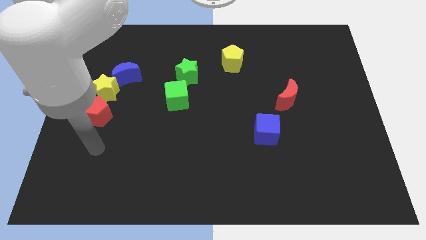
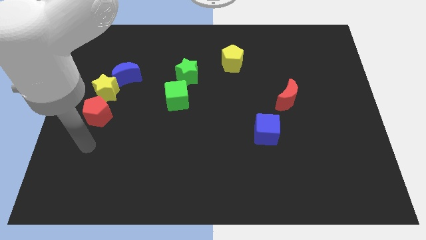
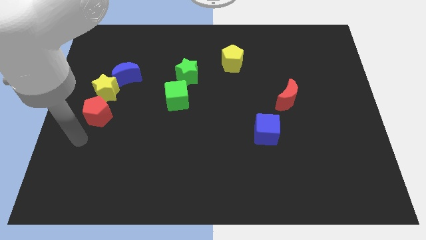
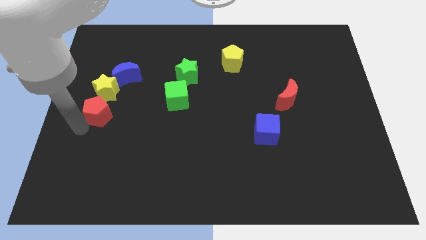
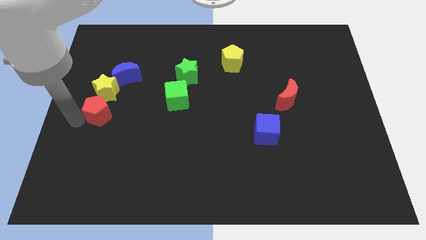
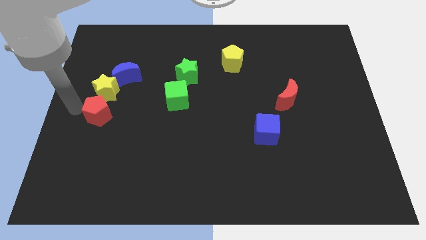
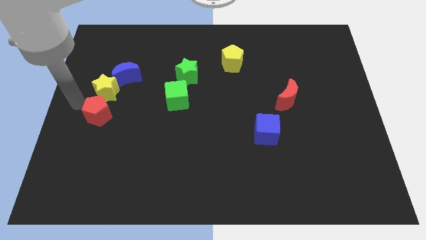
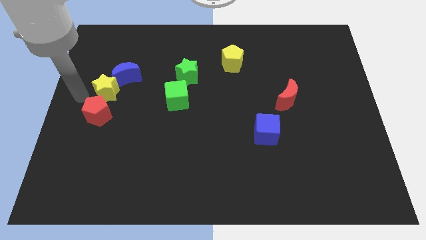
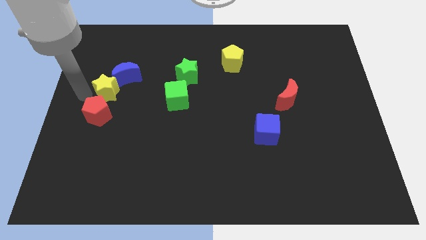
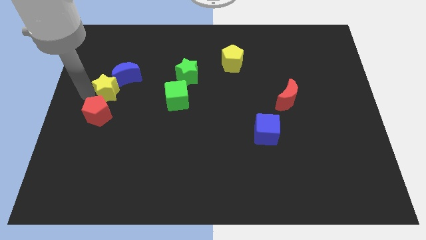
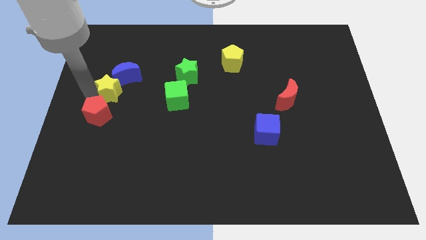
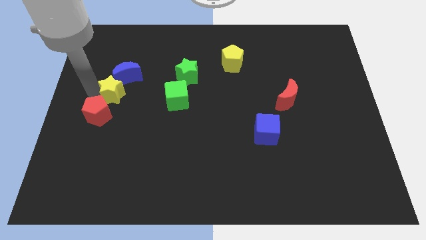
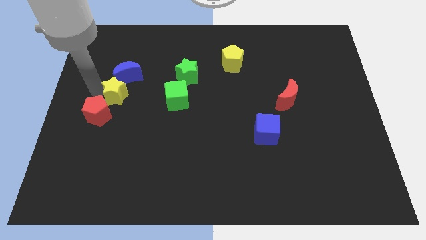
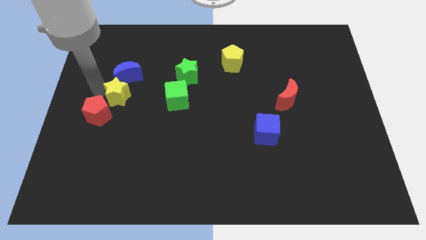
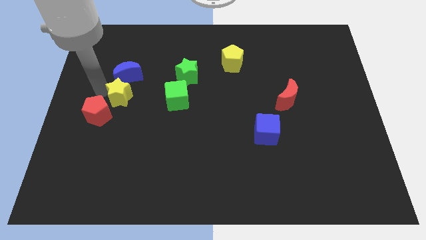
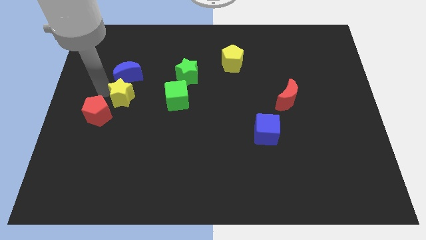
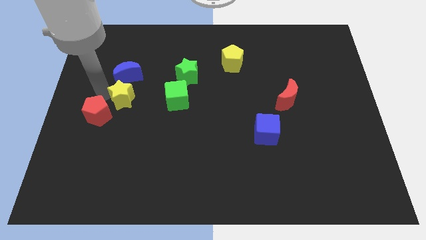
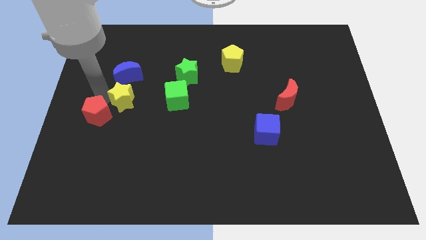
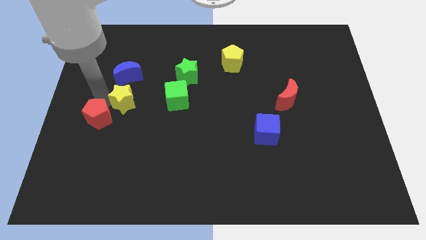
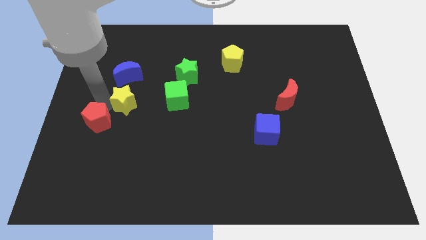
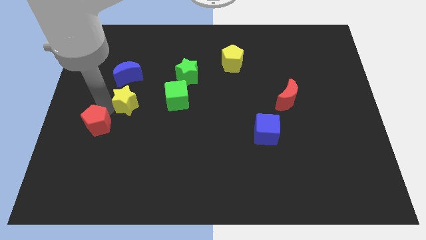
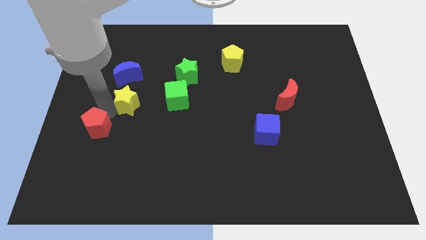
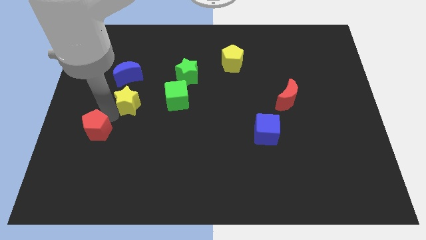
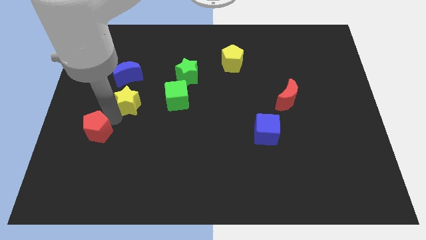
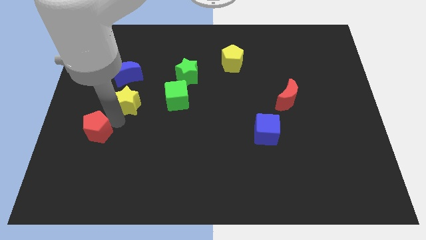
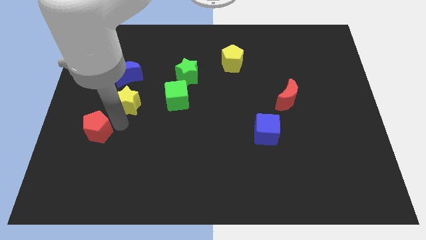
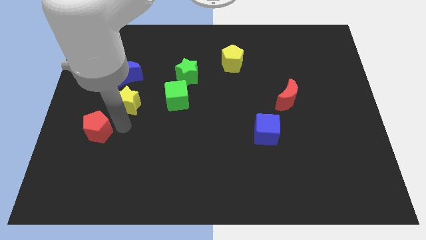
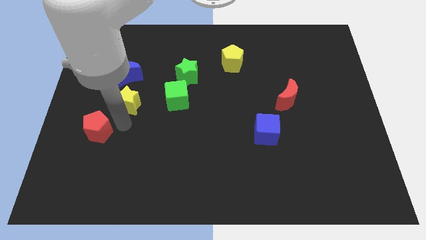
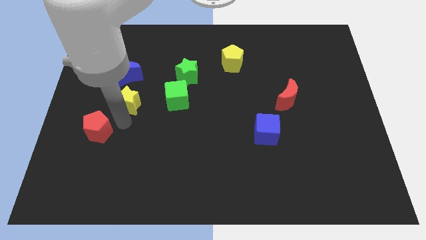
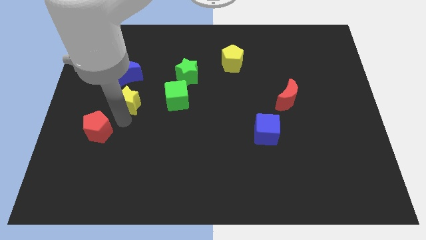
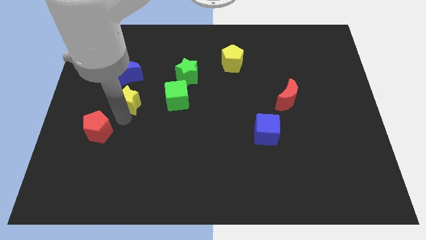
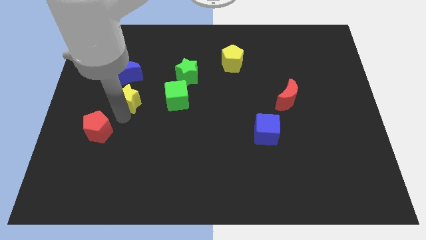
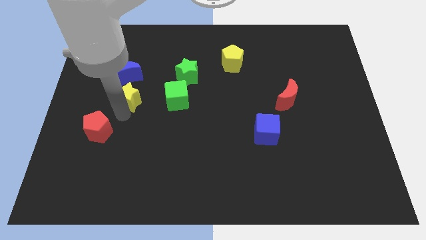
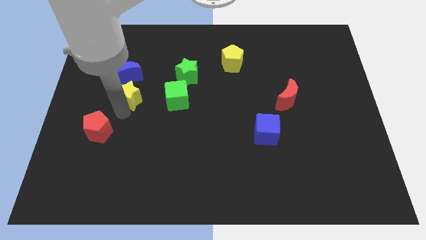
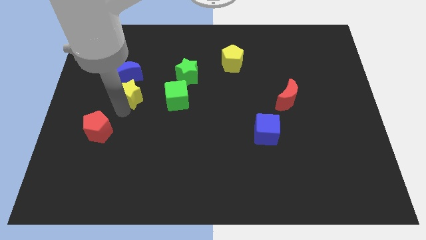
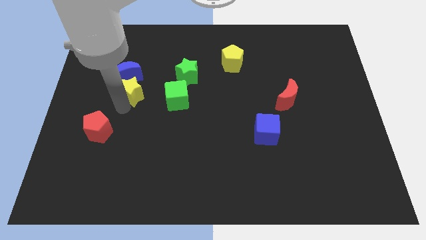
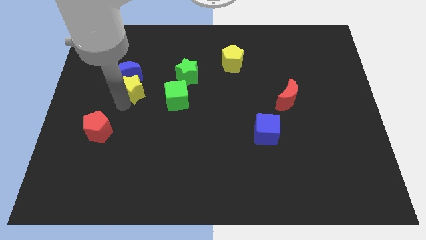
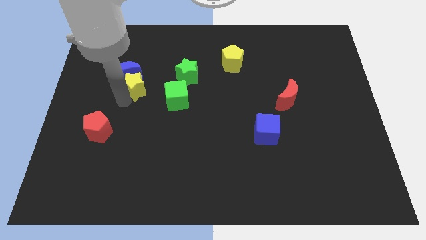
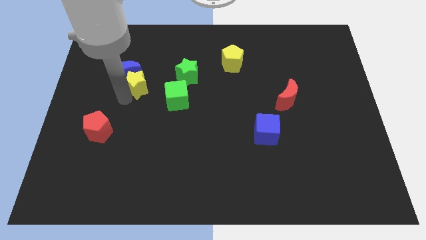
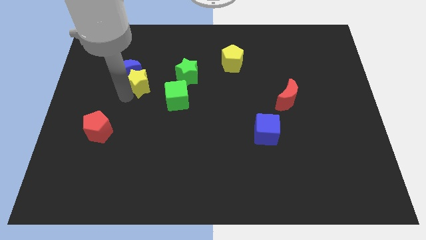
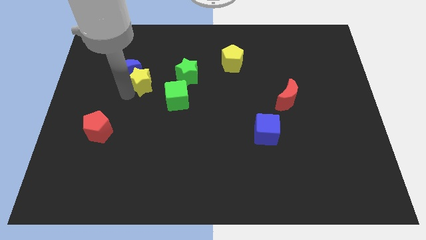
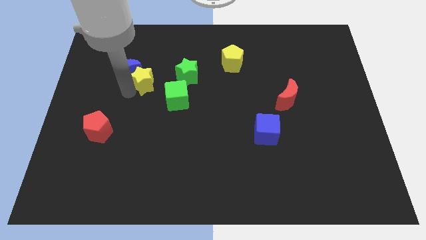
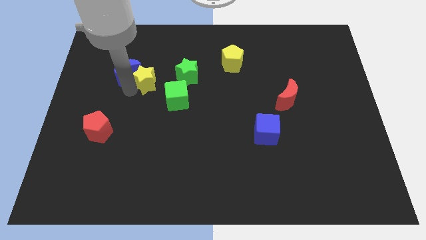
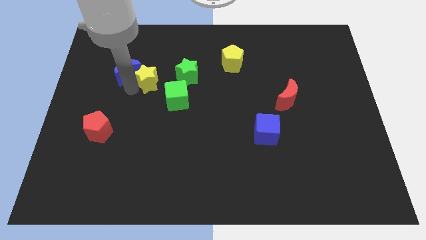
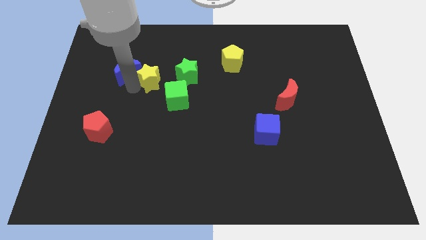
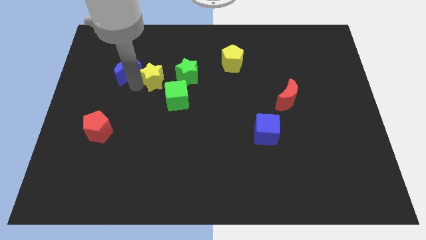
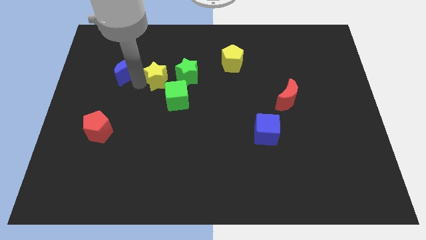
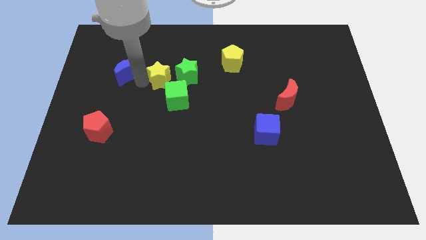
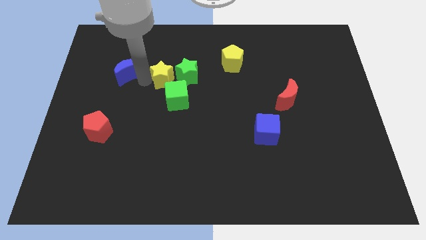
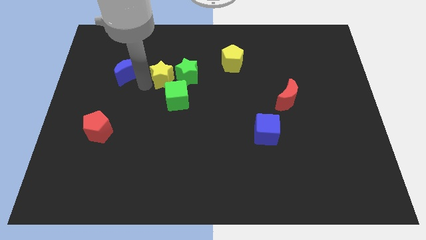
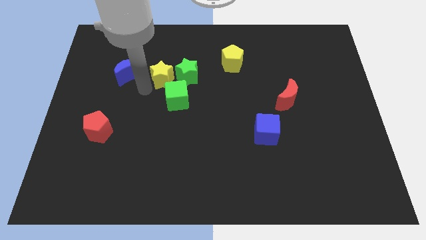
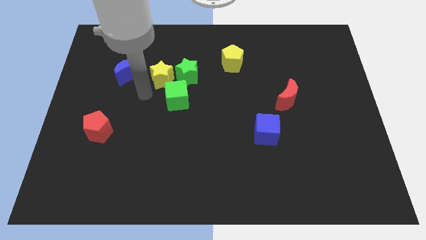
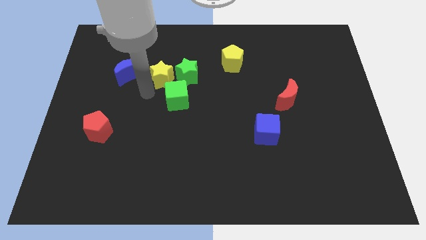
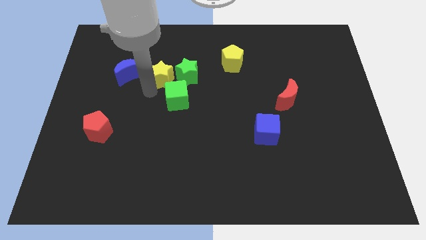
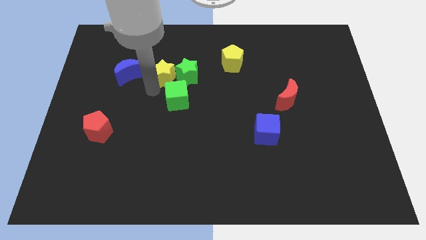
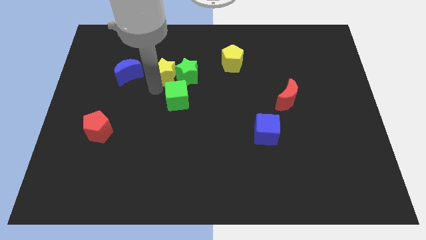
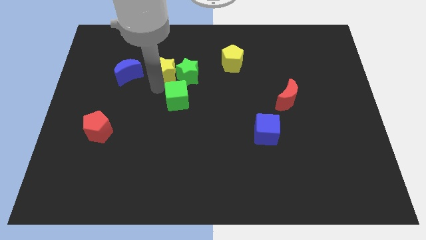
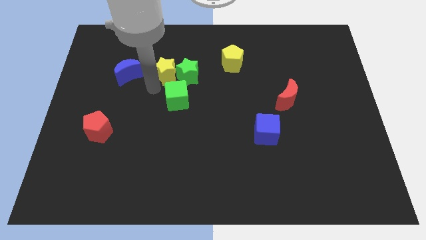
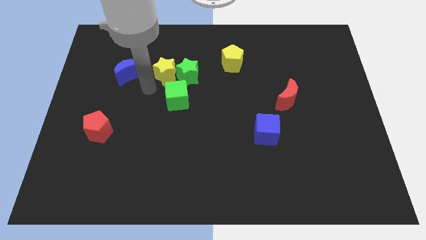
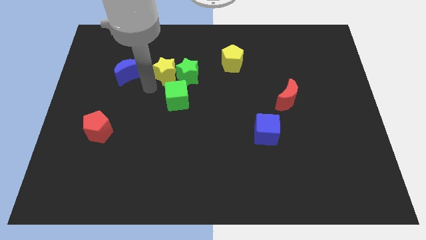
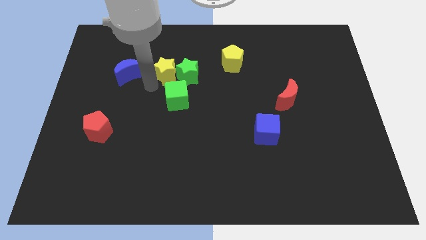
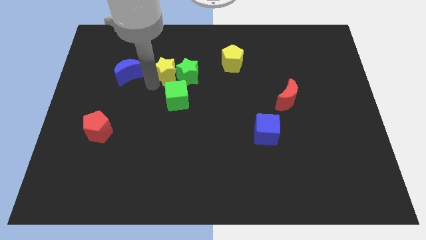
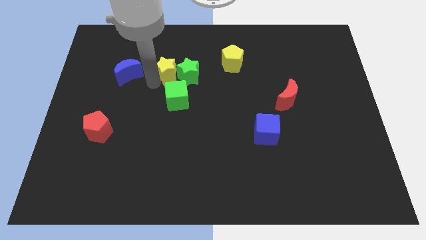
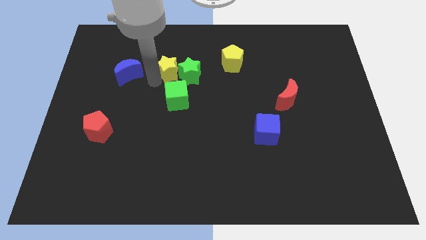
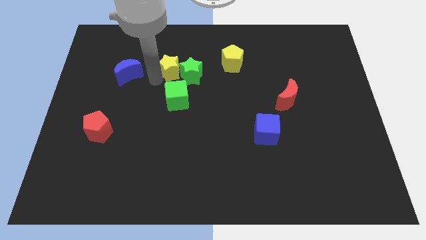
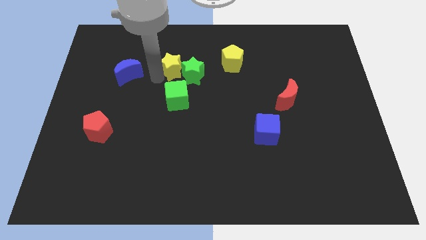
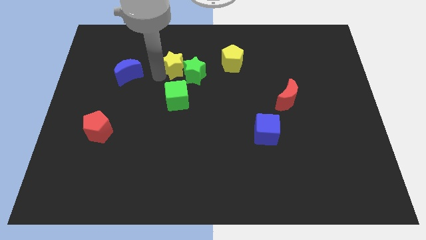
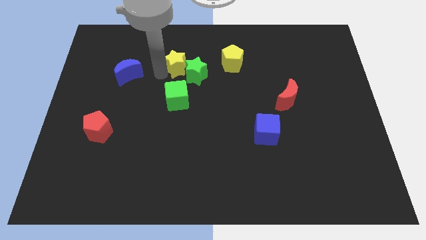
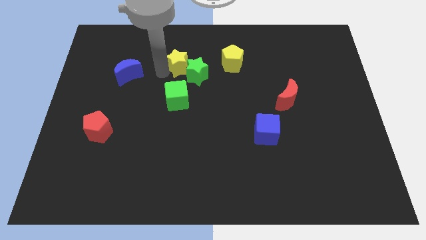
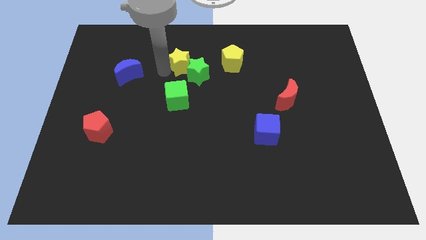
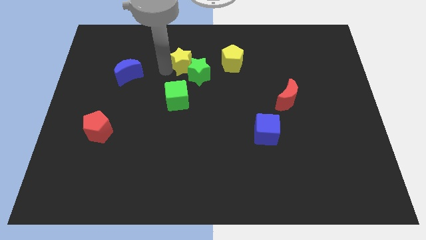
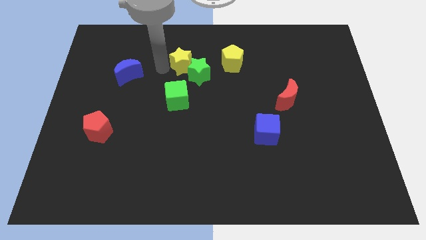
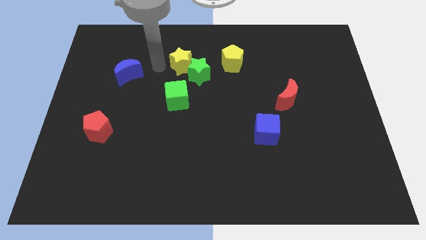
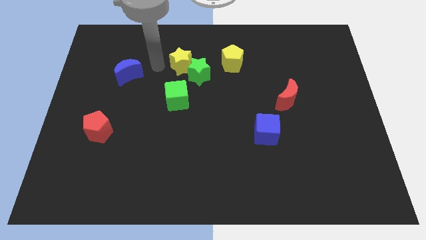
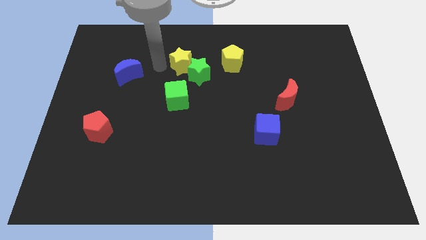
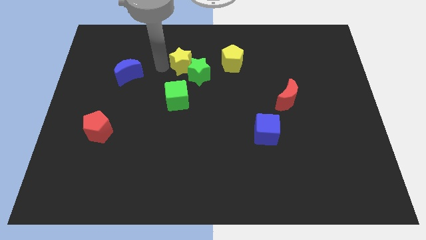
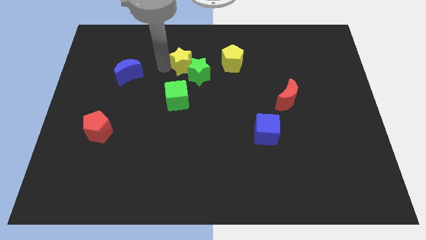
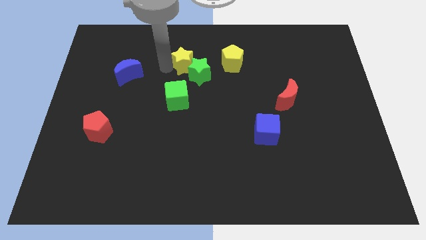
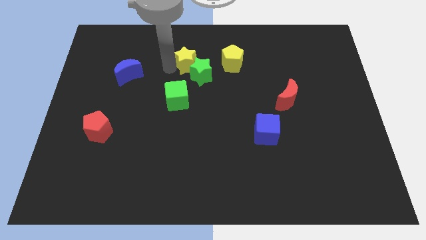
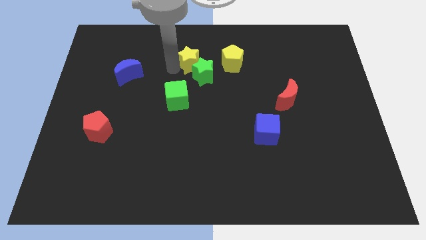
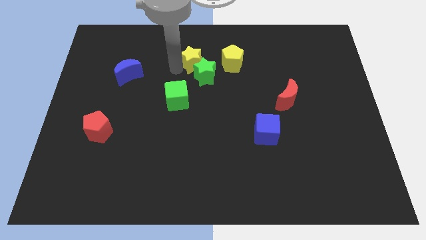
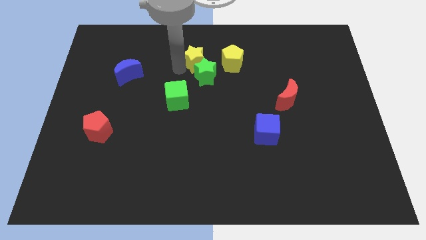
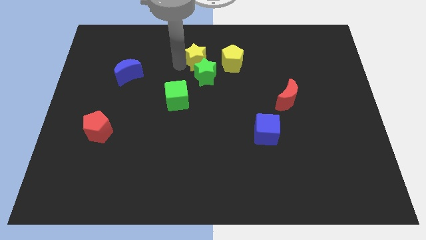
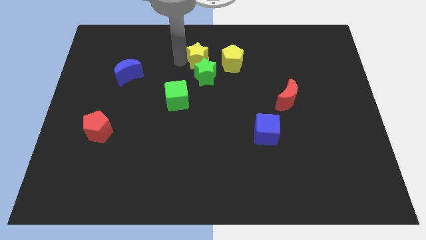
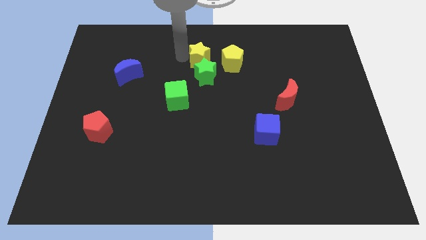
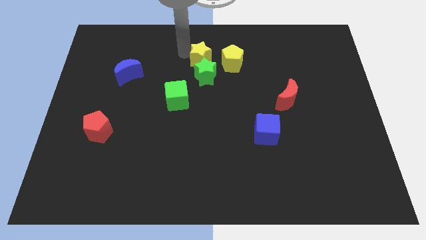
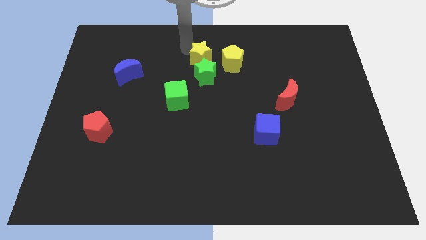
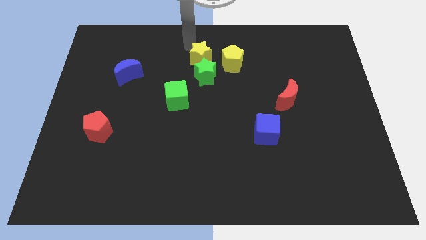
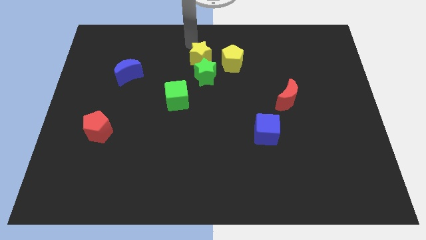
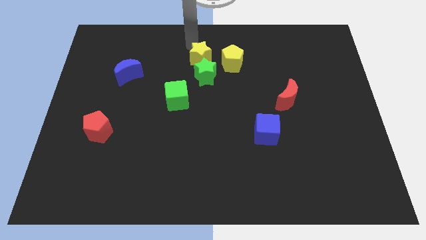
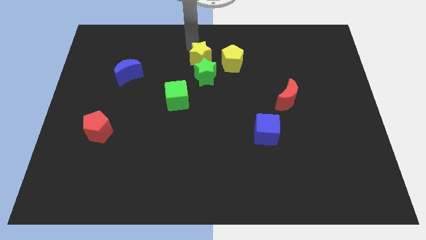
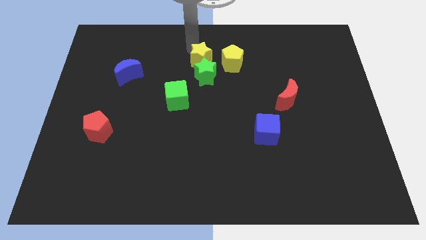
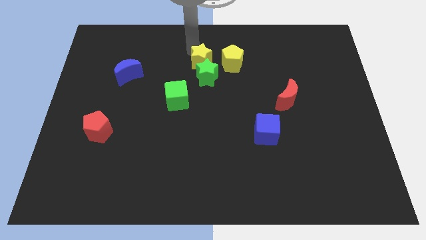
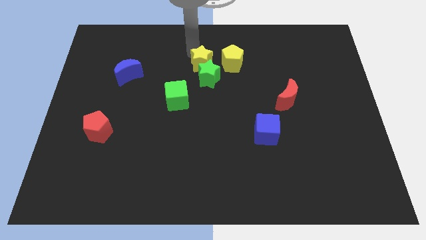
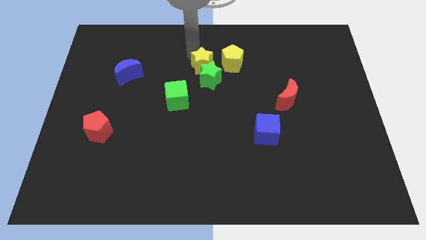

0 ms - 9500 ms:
slide the yellow star to the bottom left of the yellow pentagon
